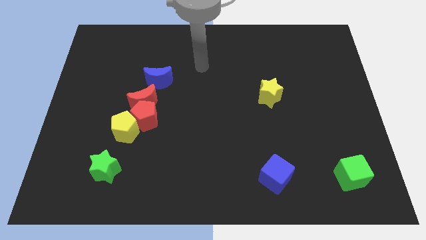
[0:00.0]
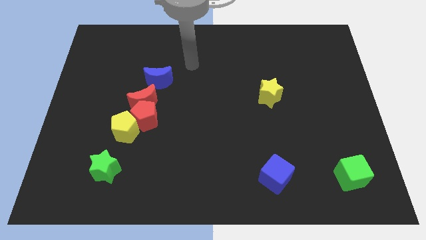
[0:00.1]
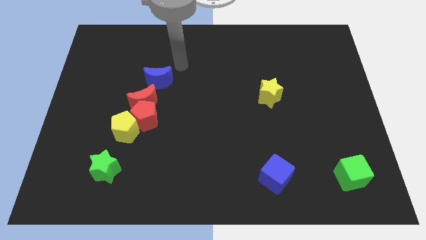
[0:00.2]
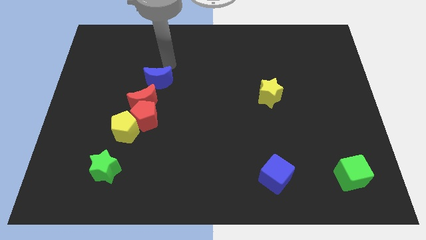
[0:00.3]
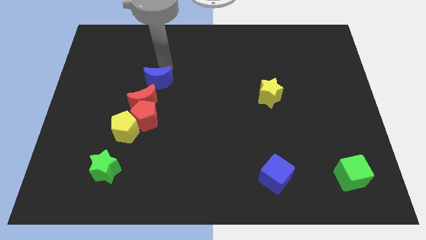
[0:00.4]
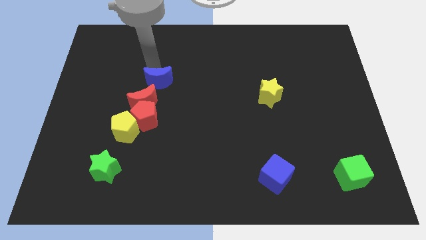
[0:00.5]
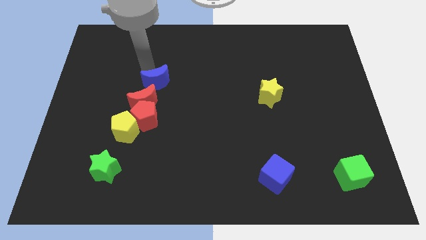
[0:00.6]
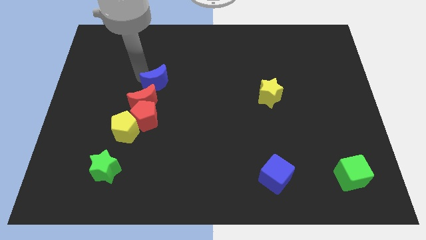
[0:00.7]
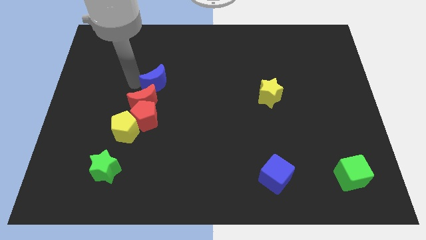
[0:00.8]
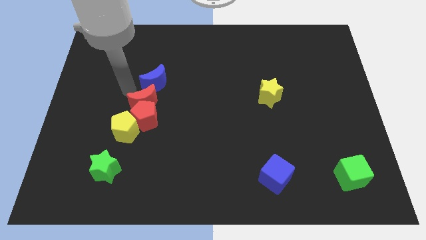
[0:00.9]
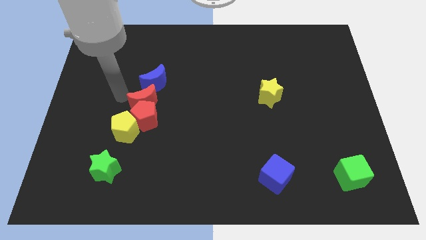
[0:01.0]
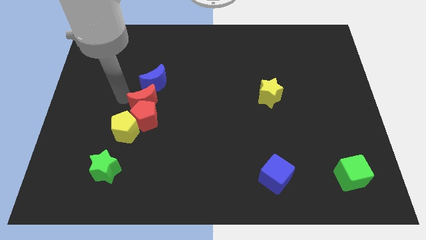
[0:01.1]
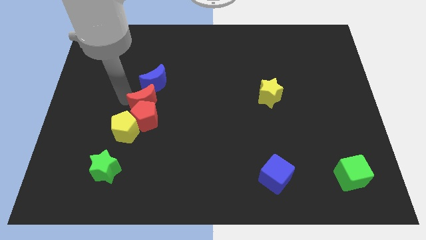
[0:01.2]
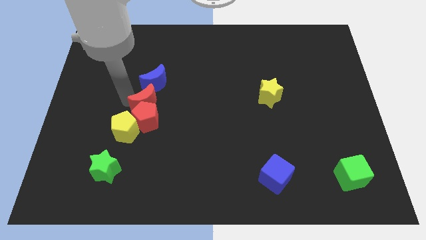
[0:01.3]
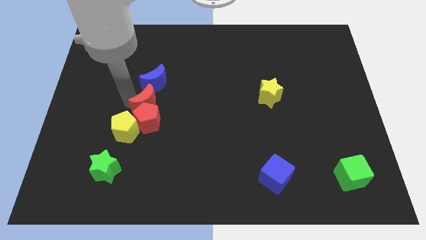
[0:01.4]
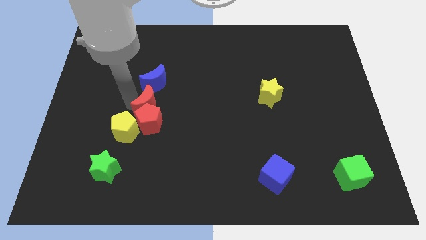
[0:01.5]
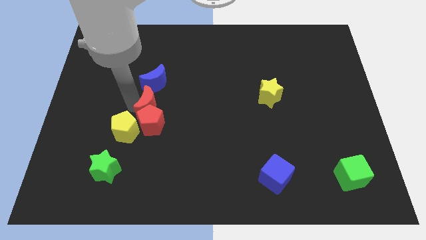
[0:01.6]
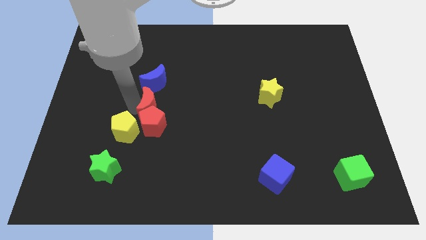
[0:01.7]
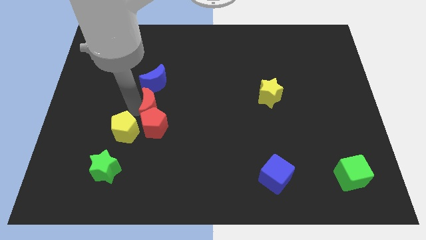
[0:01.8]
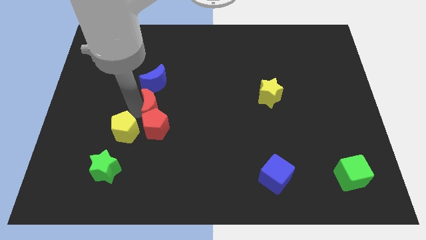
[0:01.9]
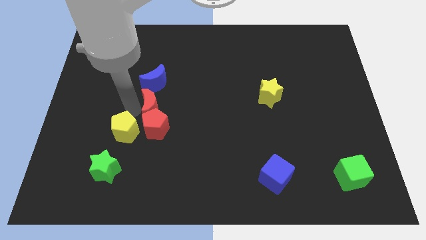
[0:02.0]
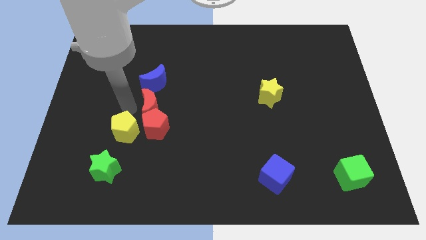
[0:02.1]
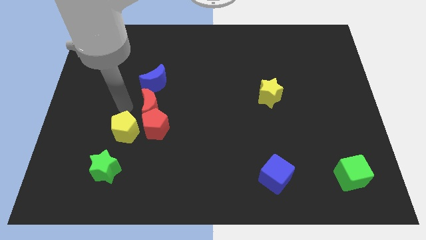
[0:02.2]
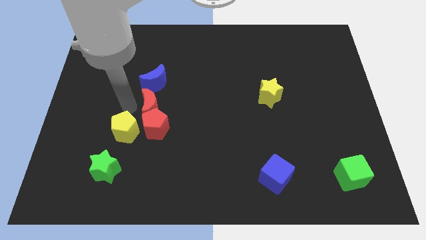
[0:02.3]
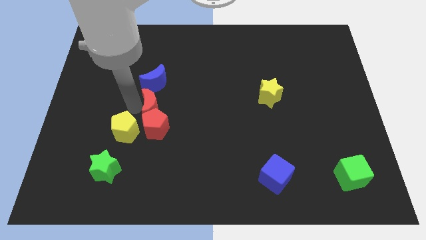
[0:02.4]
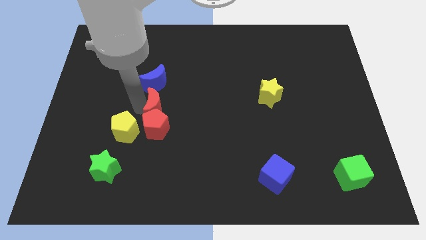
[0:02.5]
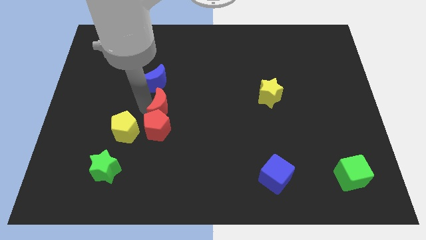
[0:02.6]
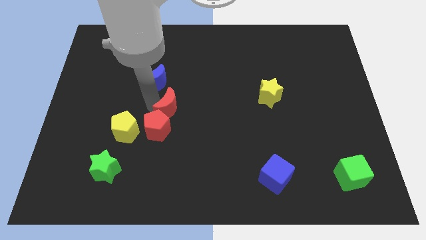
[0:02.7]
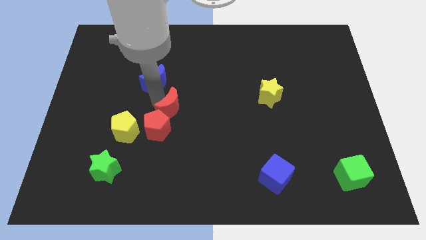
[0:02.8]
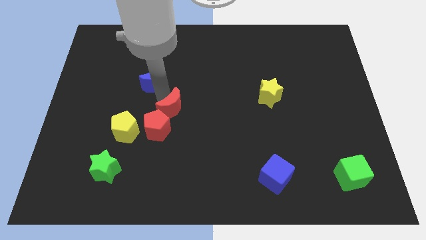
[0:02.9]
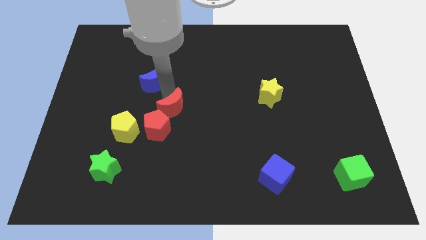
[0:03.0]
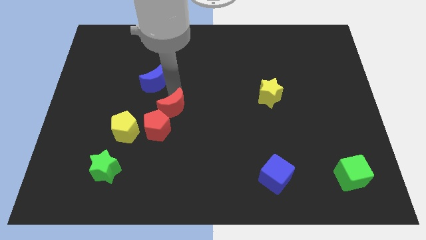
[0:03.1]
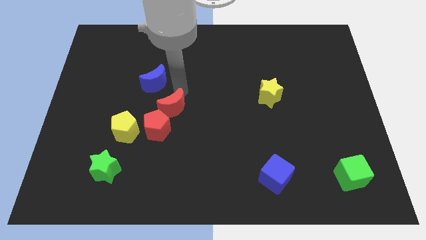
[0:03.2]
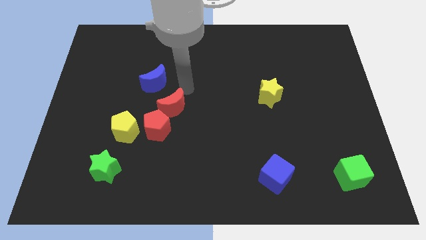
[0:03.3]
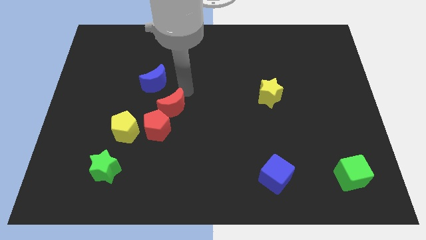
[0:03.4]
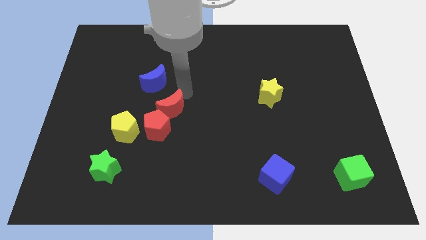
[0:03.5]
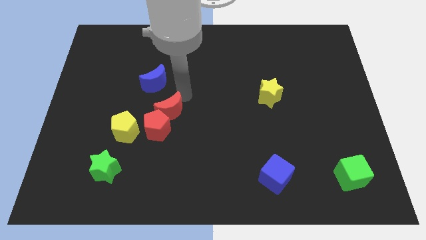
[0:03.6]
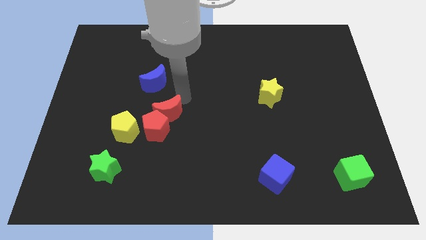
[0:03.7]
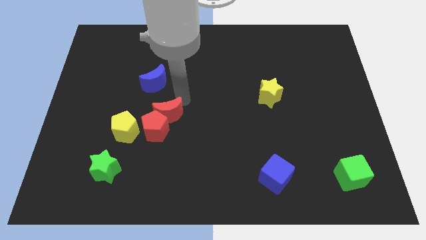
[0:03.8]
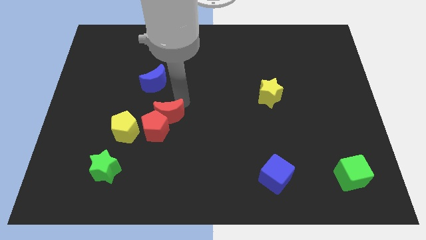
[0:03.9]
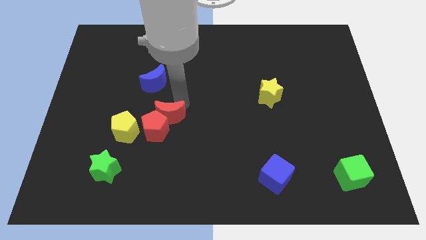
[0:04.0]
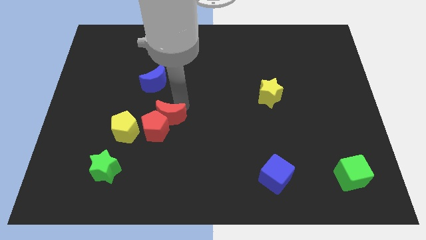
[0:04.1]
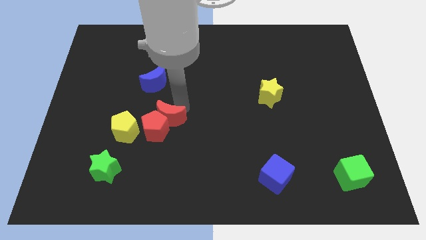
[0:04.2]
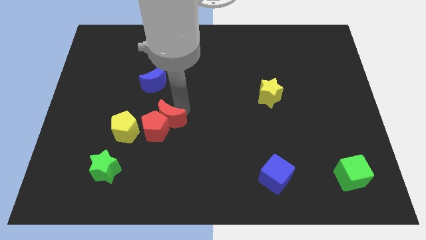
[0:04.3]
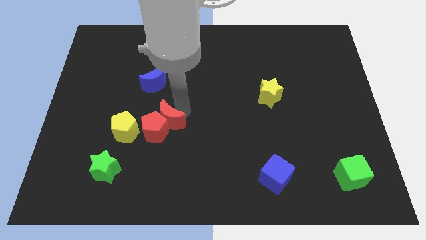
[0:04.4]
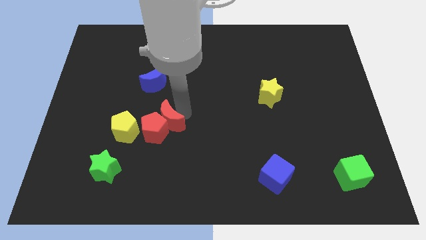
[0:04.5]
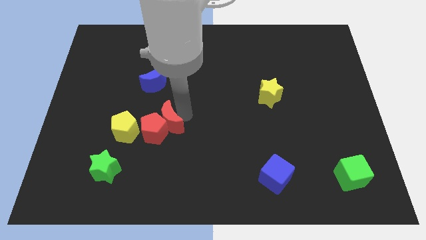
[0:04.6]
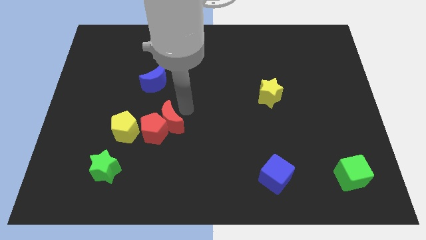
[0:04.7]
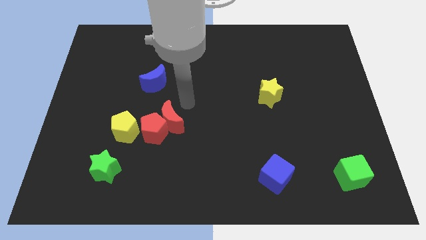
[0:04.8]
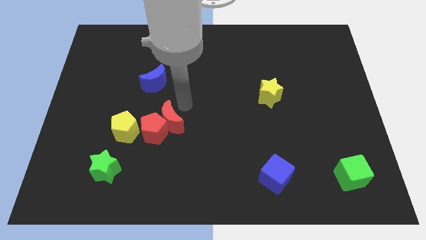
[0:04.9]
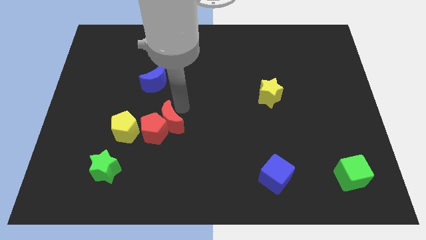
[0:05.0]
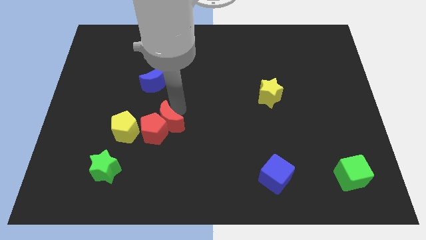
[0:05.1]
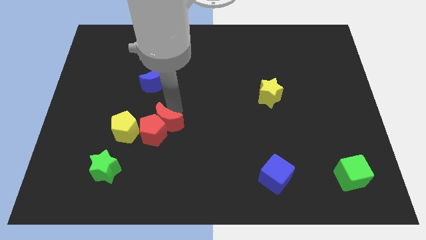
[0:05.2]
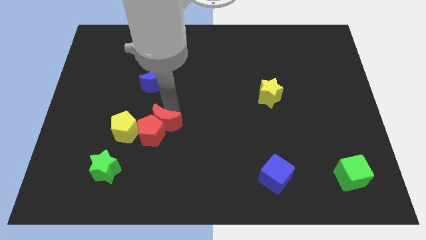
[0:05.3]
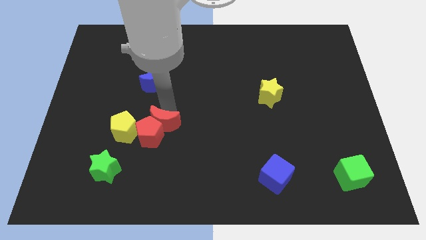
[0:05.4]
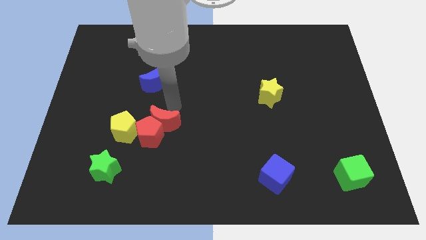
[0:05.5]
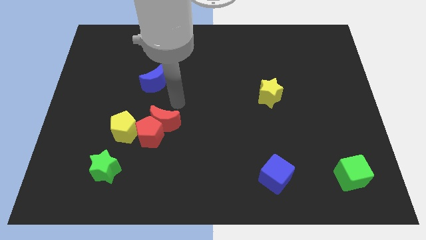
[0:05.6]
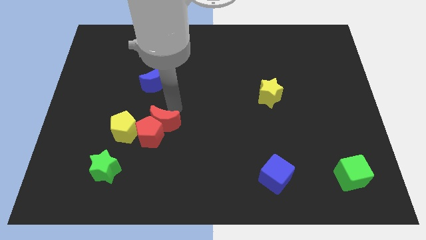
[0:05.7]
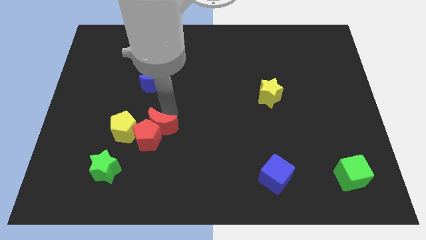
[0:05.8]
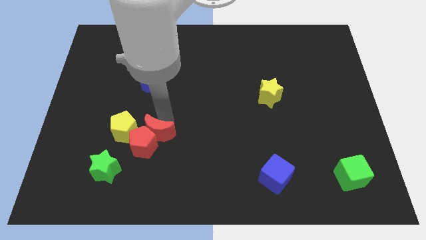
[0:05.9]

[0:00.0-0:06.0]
slide the red moon downwards slightly

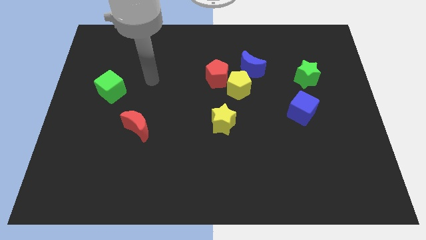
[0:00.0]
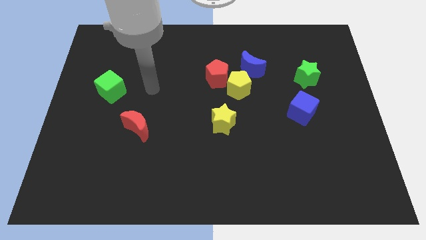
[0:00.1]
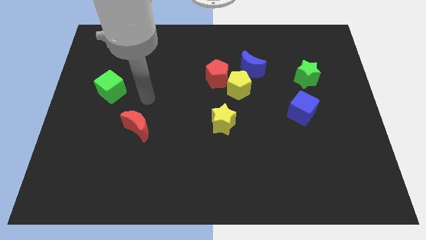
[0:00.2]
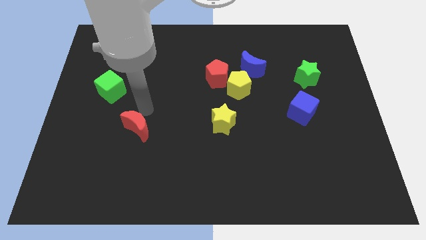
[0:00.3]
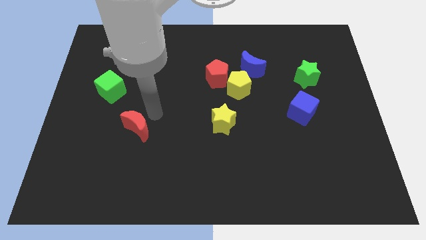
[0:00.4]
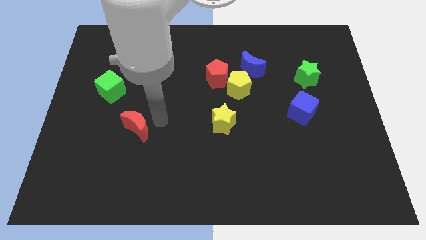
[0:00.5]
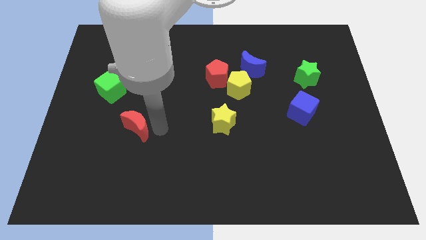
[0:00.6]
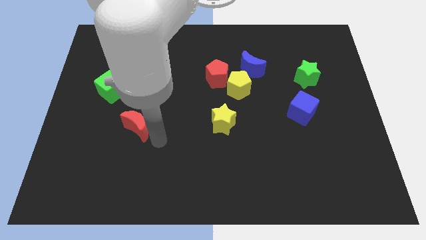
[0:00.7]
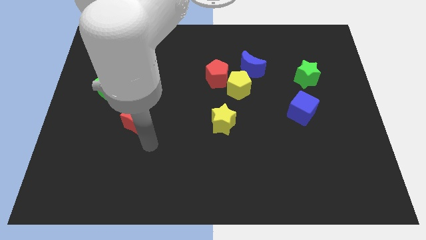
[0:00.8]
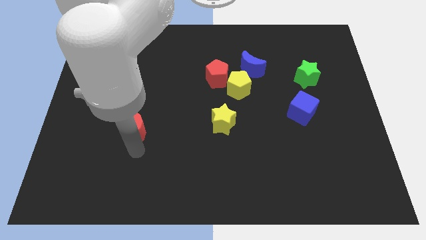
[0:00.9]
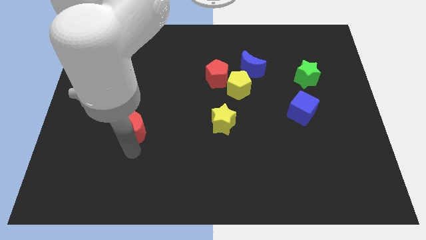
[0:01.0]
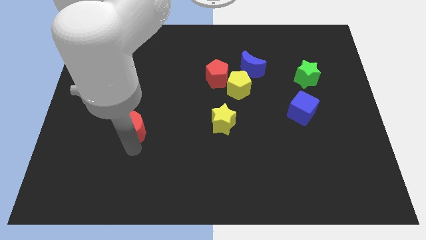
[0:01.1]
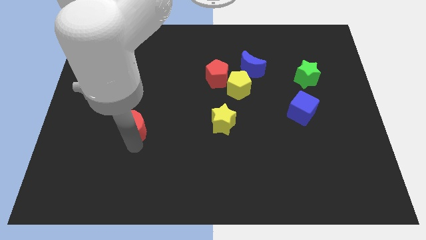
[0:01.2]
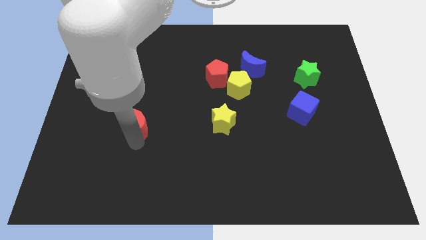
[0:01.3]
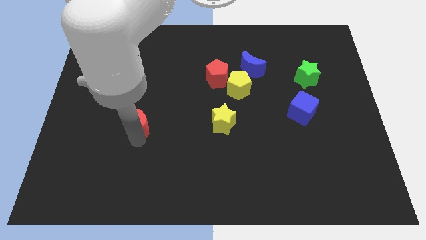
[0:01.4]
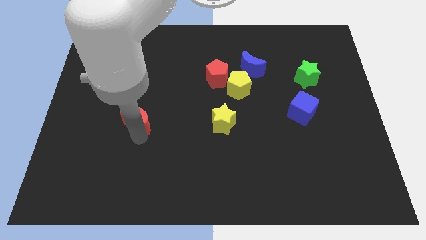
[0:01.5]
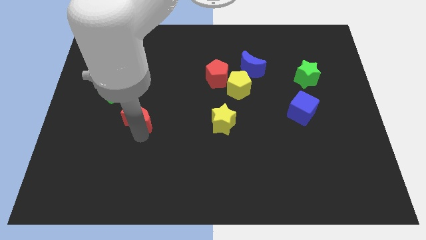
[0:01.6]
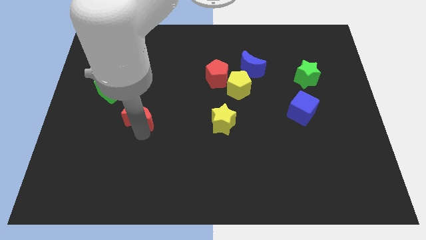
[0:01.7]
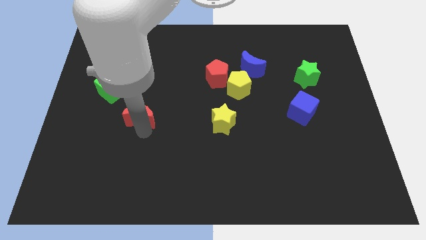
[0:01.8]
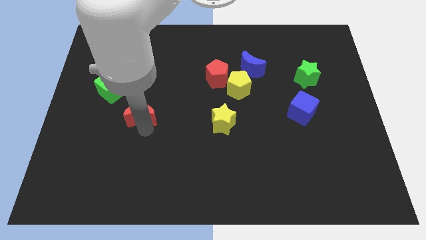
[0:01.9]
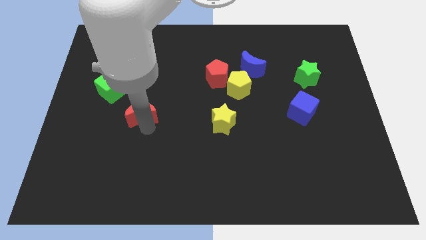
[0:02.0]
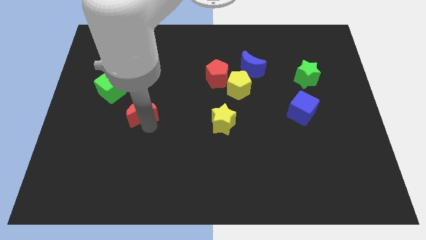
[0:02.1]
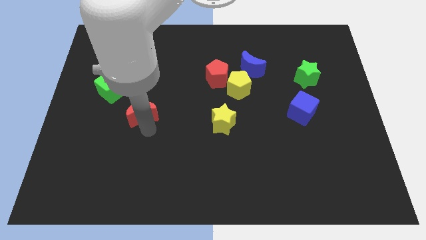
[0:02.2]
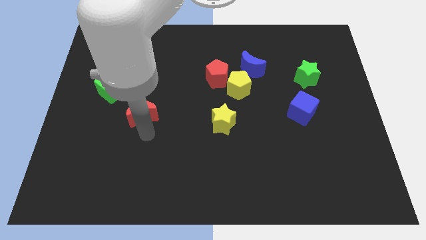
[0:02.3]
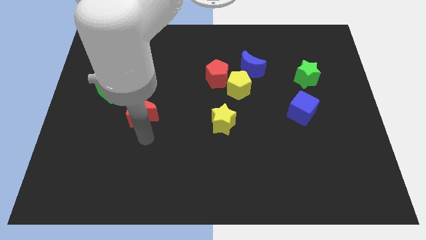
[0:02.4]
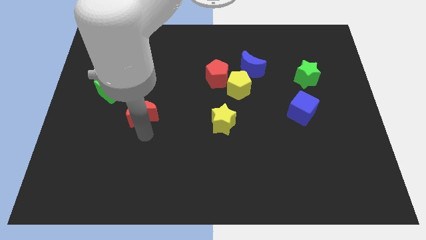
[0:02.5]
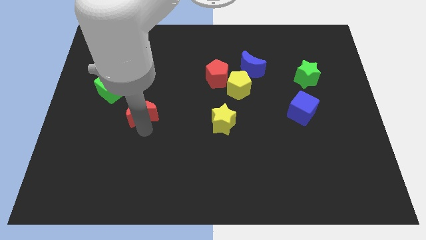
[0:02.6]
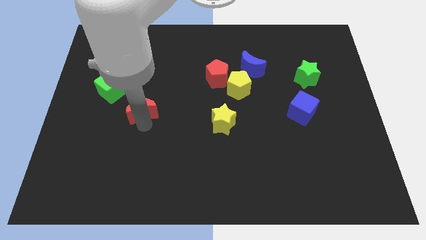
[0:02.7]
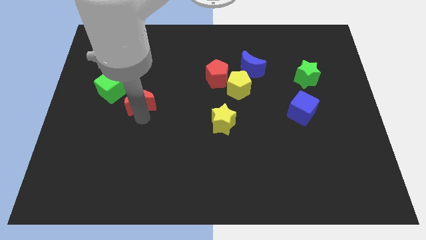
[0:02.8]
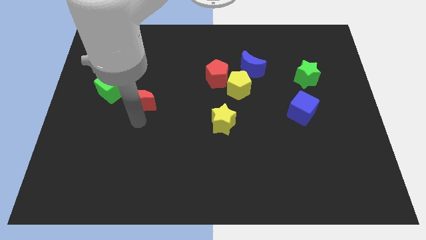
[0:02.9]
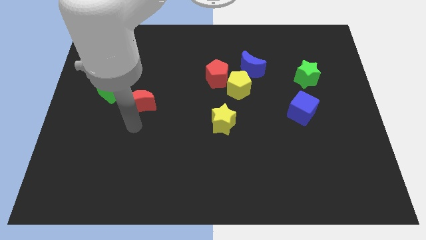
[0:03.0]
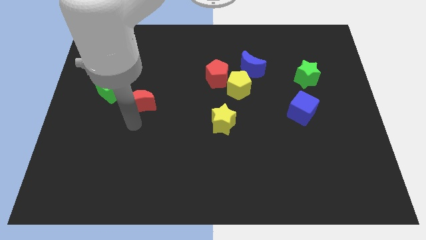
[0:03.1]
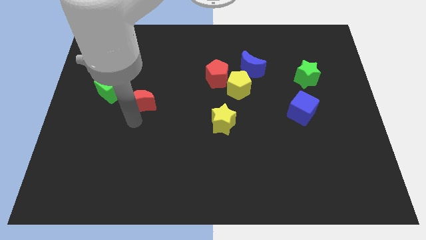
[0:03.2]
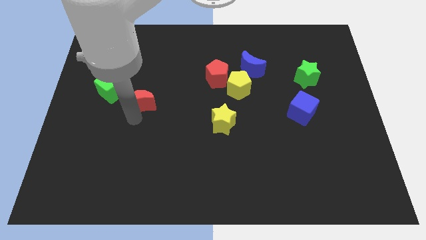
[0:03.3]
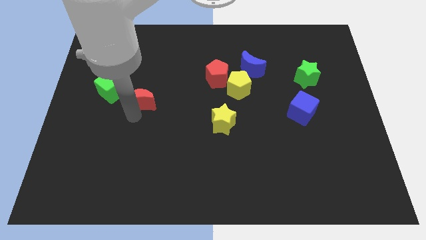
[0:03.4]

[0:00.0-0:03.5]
slide the red moon a bit upwards
